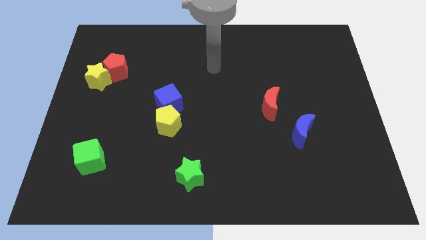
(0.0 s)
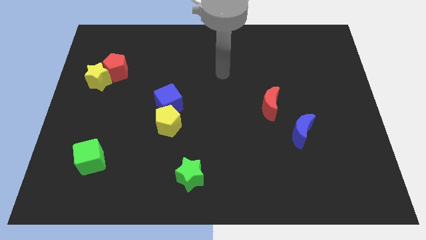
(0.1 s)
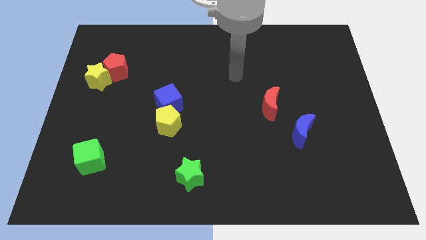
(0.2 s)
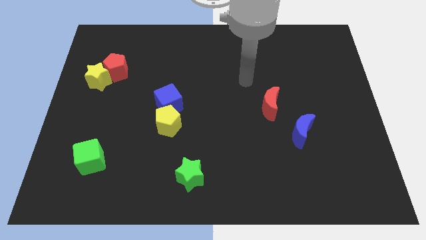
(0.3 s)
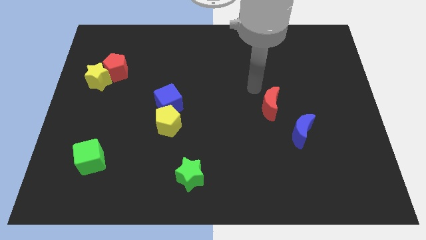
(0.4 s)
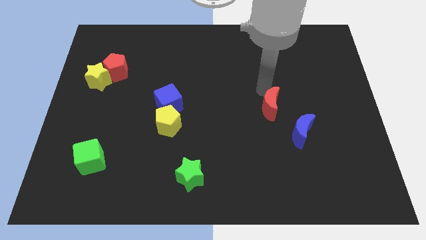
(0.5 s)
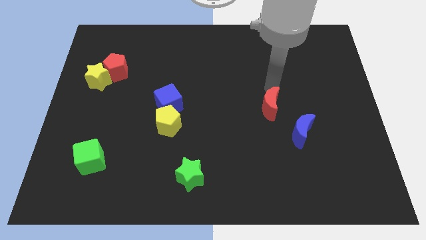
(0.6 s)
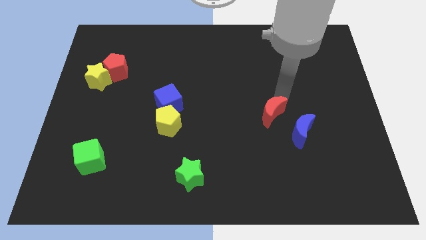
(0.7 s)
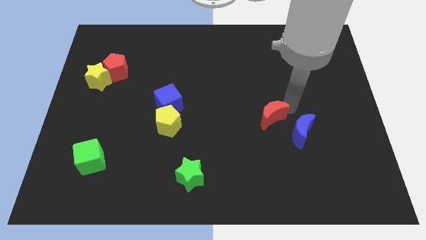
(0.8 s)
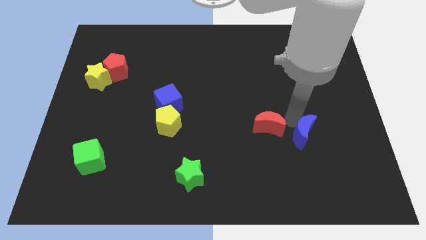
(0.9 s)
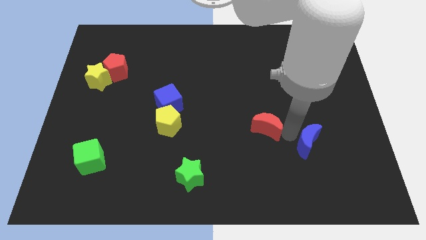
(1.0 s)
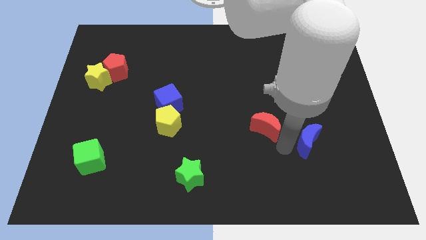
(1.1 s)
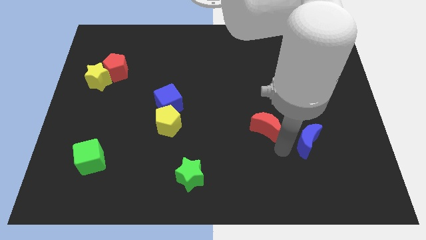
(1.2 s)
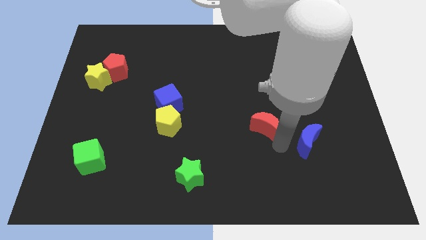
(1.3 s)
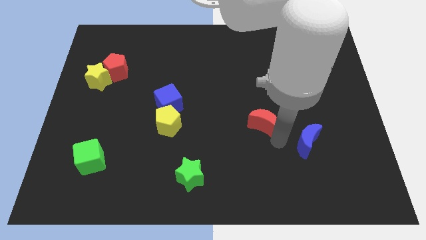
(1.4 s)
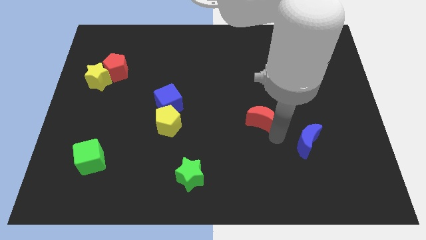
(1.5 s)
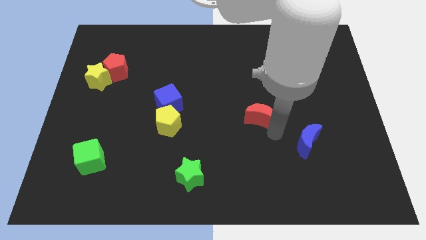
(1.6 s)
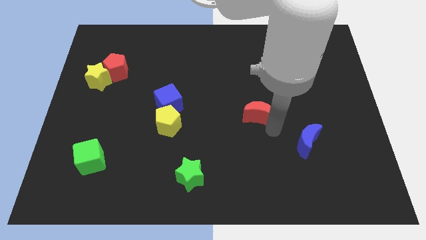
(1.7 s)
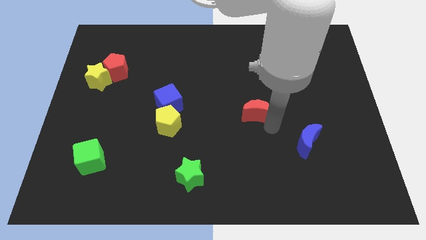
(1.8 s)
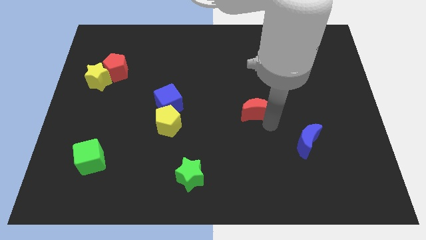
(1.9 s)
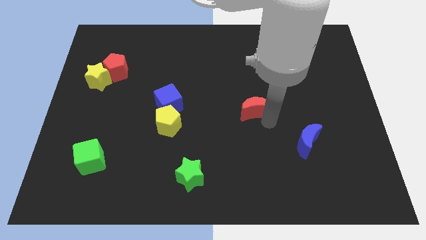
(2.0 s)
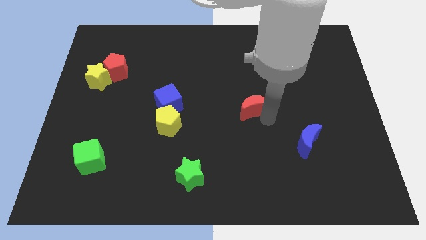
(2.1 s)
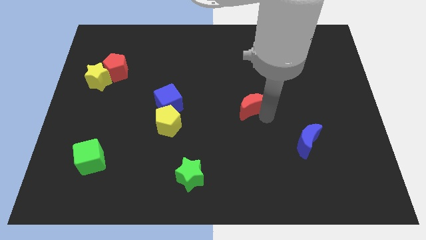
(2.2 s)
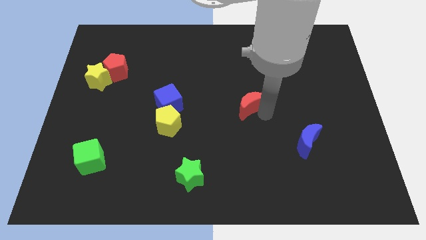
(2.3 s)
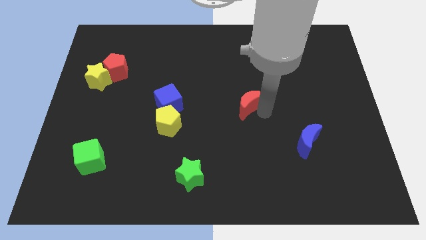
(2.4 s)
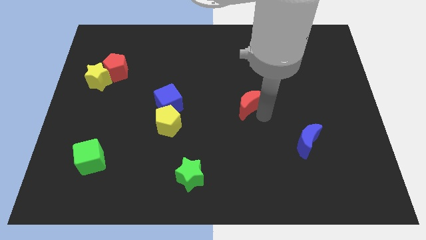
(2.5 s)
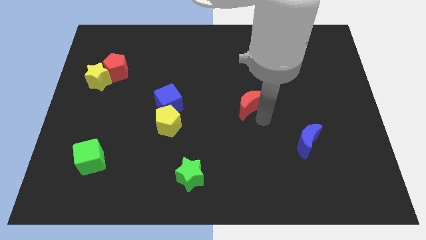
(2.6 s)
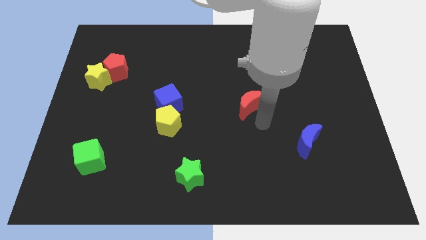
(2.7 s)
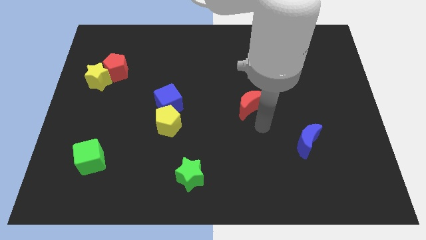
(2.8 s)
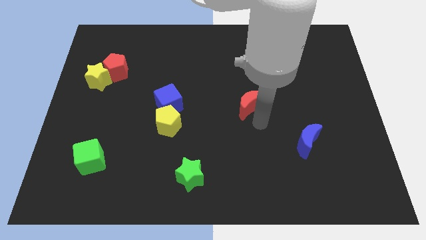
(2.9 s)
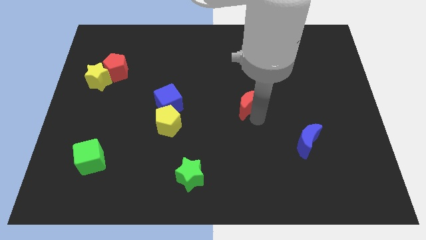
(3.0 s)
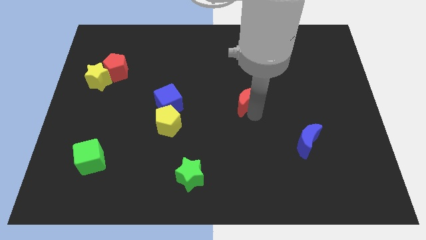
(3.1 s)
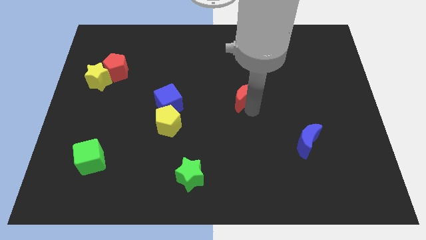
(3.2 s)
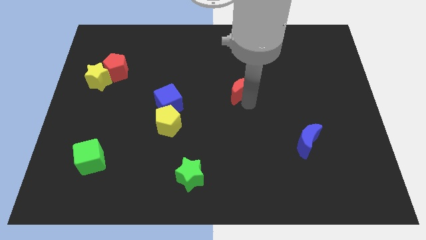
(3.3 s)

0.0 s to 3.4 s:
push the red moon a little bit upwards and to the left diagonally

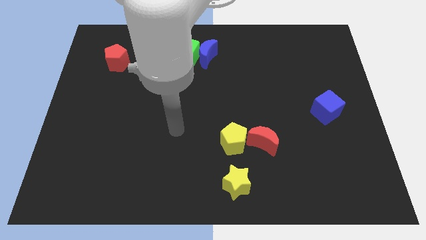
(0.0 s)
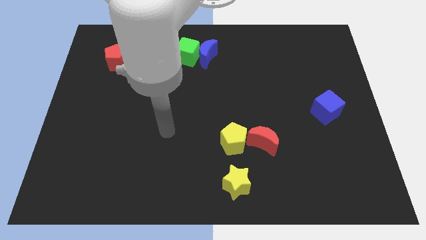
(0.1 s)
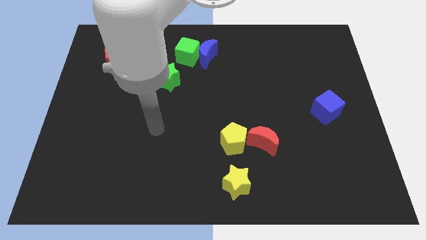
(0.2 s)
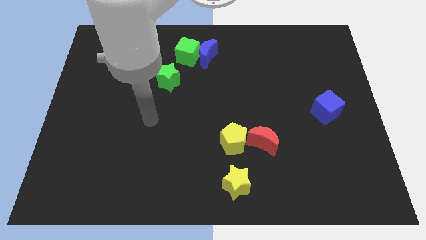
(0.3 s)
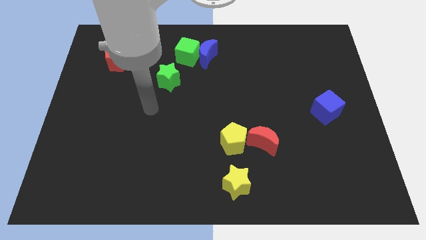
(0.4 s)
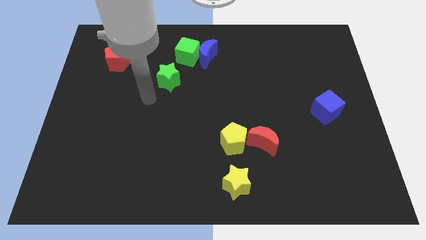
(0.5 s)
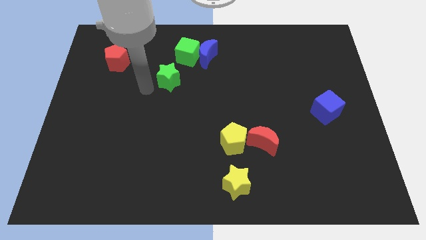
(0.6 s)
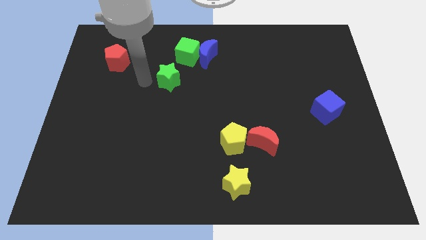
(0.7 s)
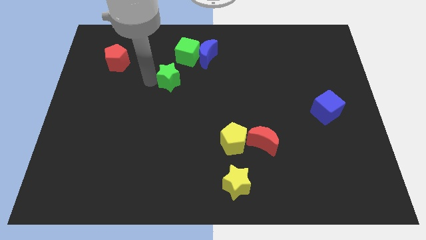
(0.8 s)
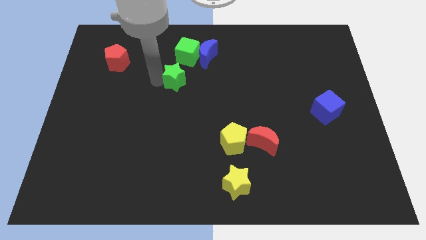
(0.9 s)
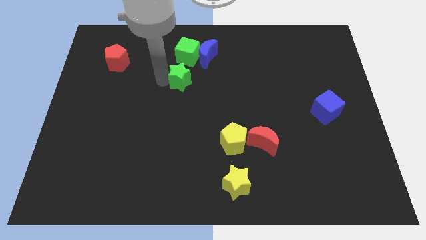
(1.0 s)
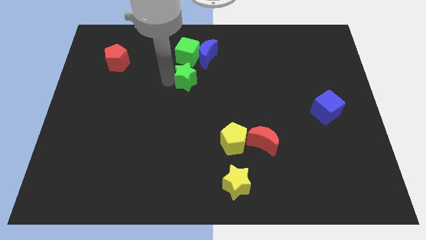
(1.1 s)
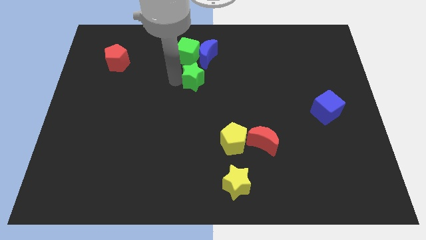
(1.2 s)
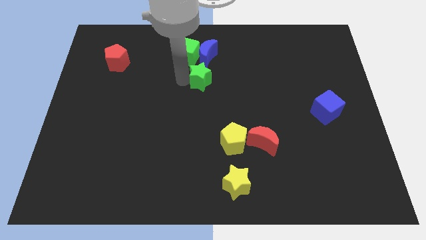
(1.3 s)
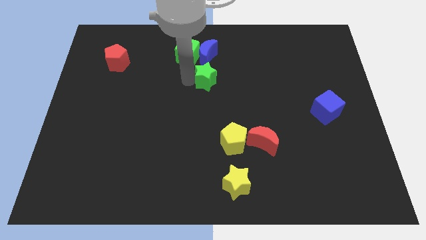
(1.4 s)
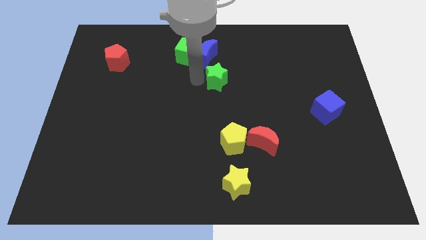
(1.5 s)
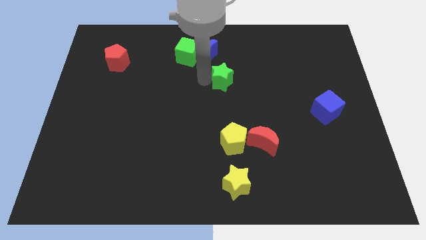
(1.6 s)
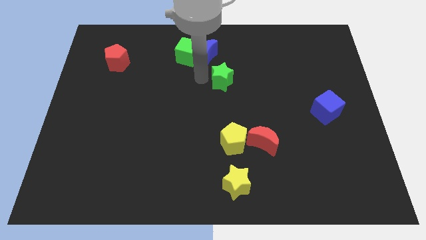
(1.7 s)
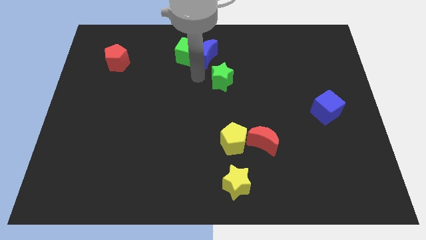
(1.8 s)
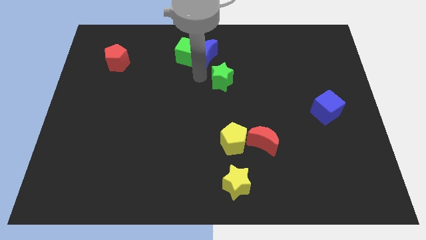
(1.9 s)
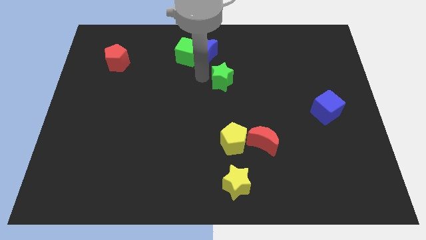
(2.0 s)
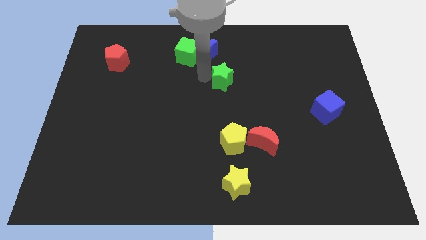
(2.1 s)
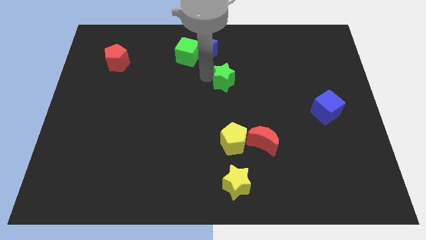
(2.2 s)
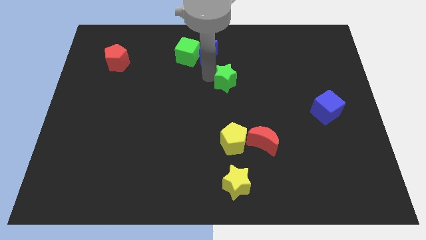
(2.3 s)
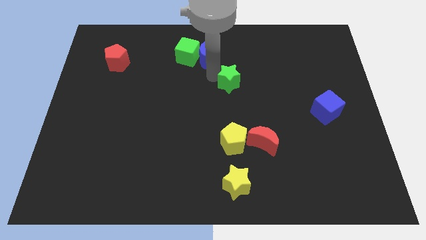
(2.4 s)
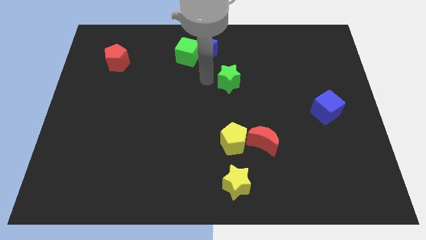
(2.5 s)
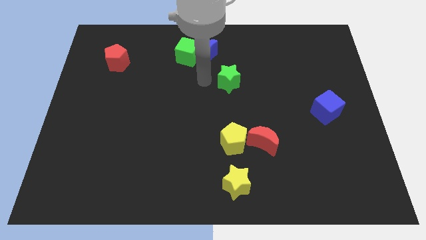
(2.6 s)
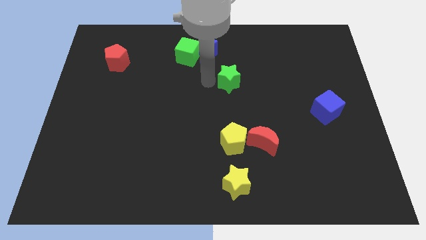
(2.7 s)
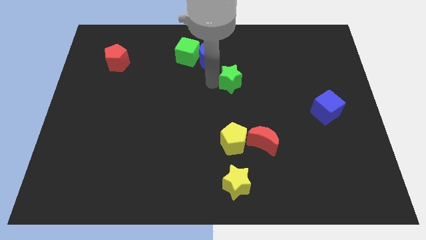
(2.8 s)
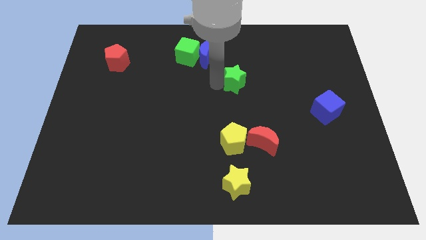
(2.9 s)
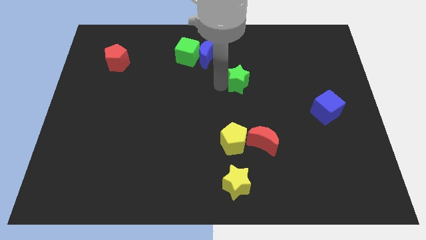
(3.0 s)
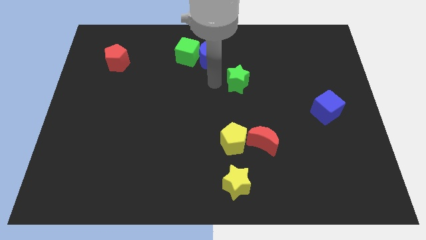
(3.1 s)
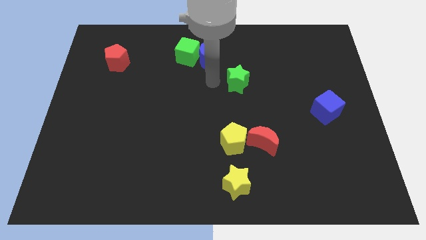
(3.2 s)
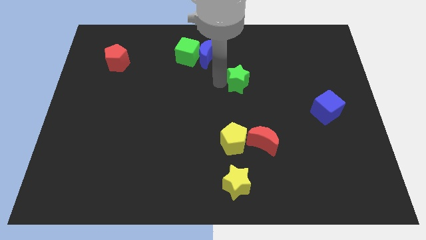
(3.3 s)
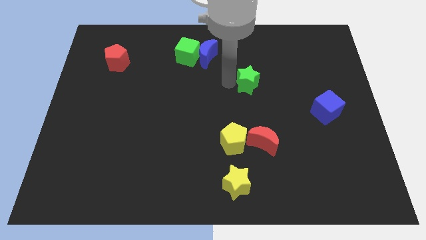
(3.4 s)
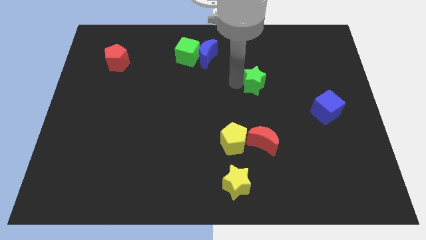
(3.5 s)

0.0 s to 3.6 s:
push the green star to the right

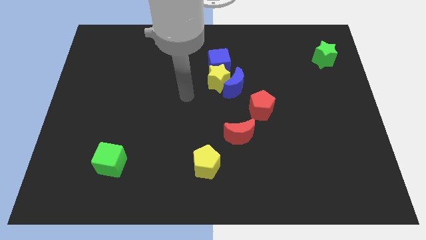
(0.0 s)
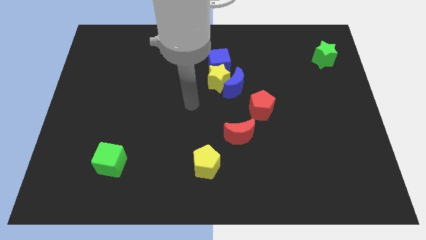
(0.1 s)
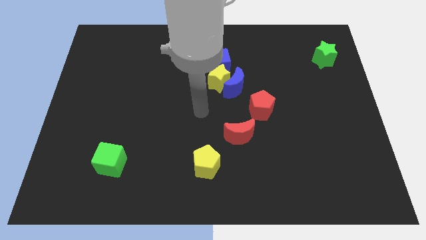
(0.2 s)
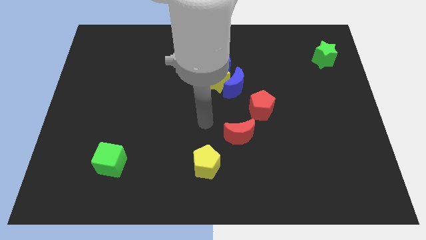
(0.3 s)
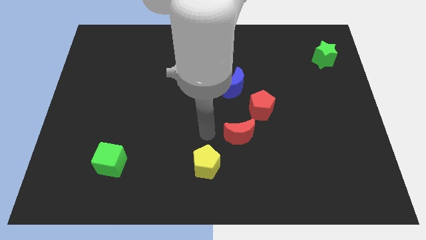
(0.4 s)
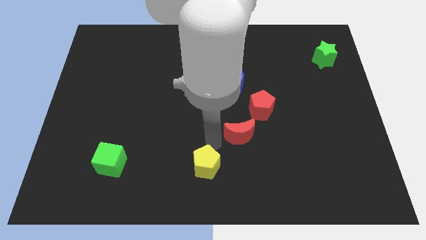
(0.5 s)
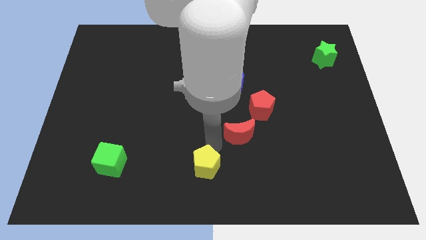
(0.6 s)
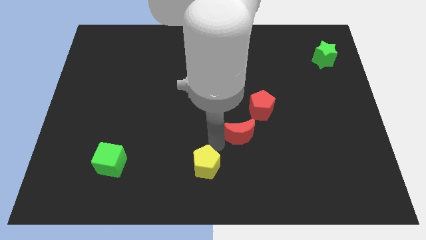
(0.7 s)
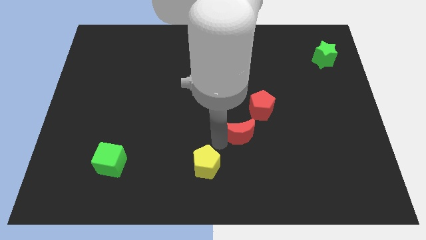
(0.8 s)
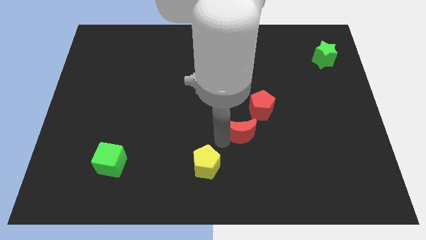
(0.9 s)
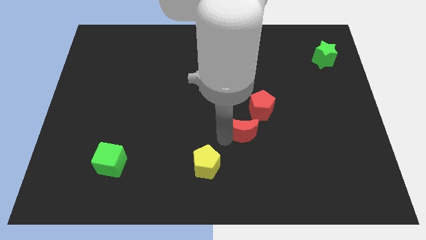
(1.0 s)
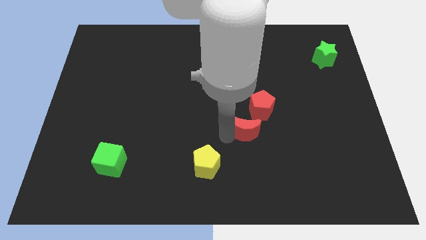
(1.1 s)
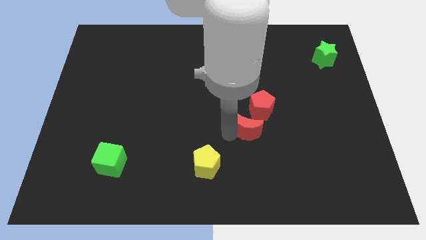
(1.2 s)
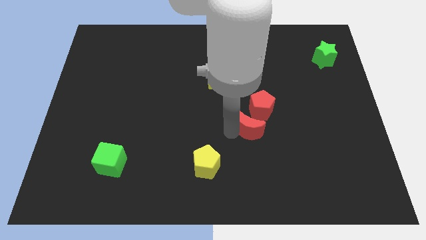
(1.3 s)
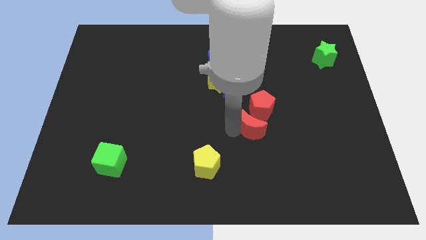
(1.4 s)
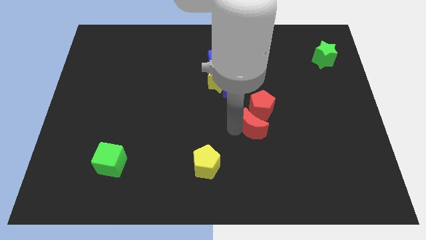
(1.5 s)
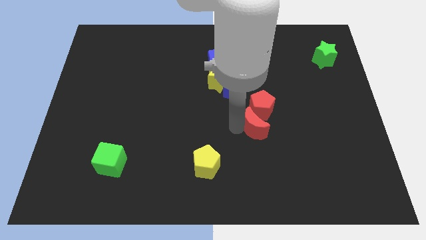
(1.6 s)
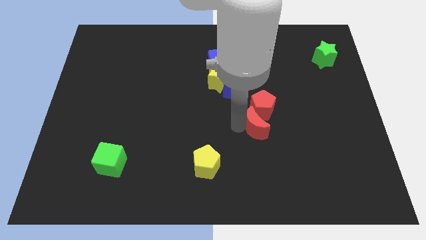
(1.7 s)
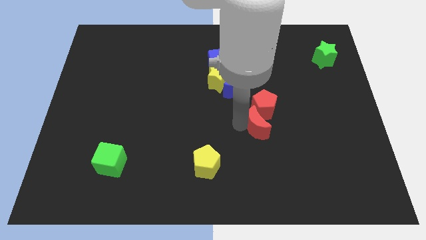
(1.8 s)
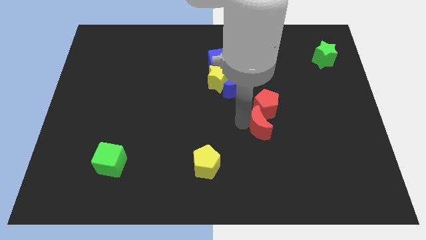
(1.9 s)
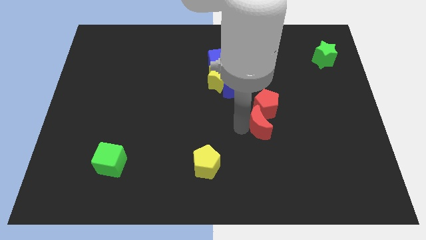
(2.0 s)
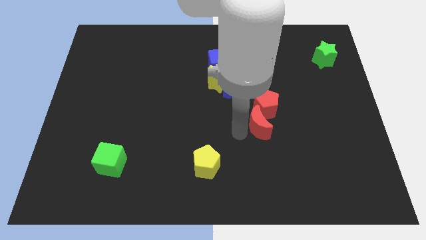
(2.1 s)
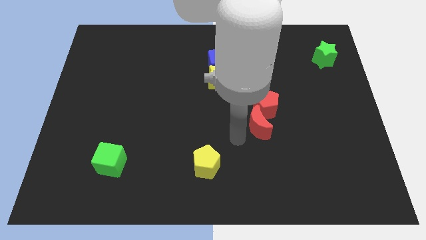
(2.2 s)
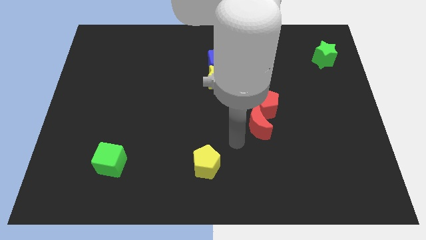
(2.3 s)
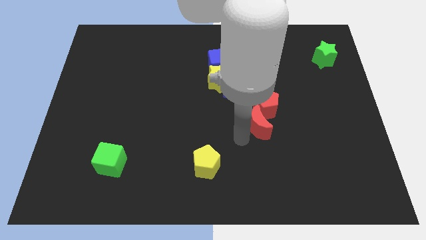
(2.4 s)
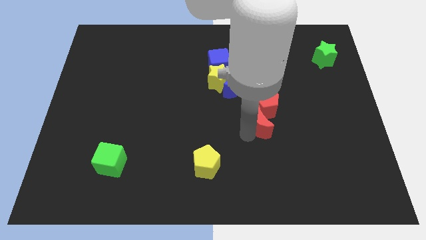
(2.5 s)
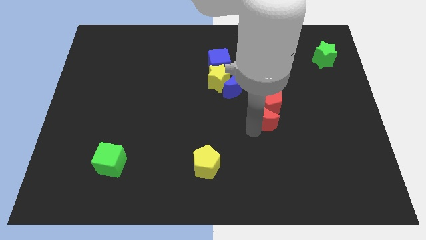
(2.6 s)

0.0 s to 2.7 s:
move the red moon a bit up and then right
